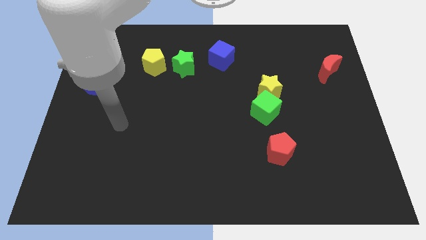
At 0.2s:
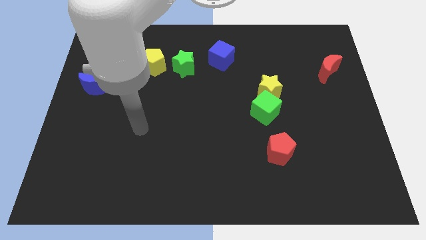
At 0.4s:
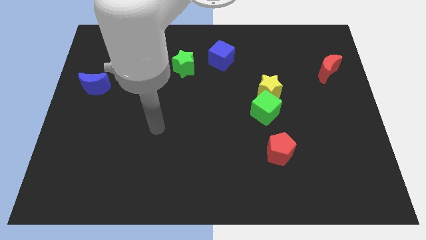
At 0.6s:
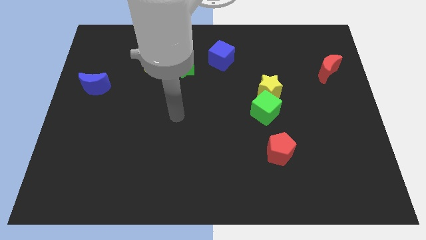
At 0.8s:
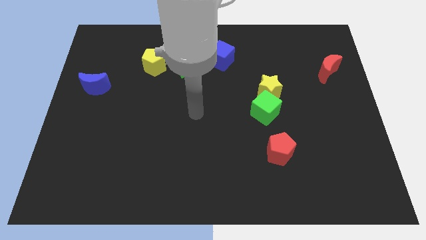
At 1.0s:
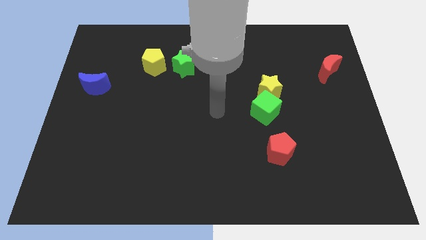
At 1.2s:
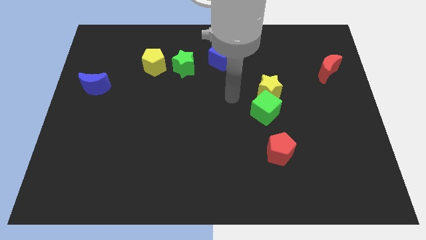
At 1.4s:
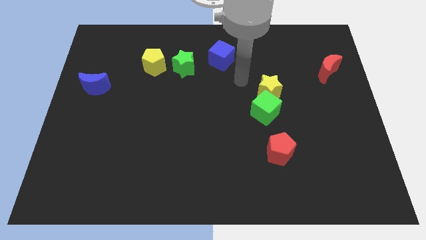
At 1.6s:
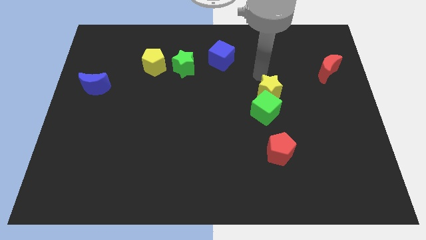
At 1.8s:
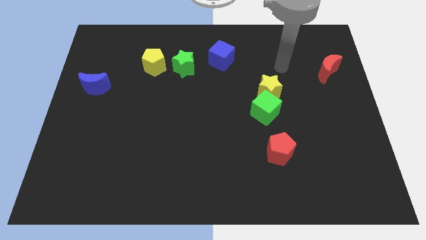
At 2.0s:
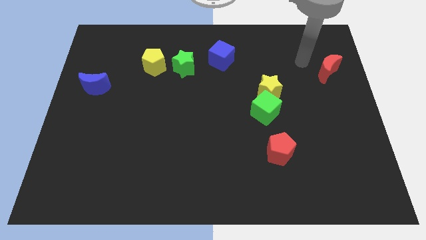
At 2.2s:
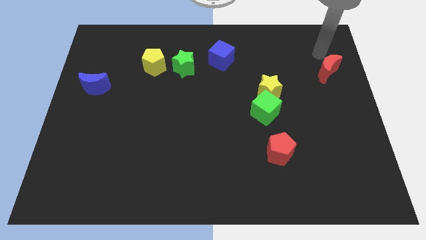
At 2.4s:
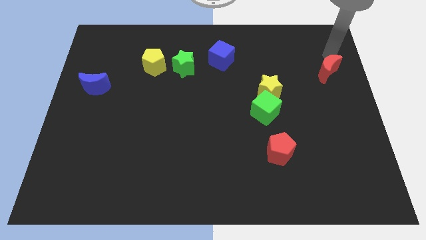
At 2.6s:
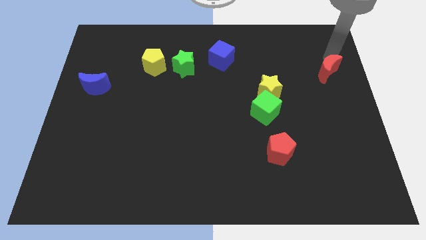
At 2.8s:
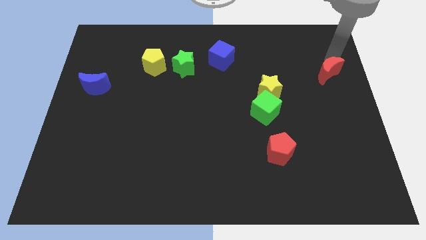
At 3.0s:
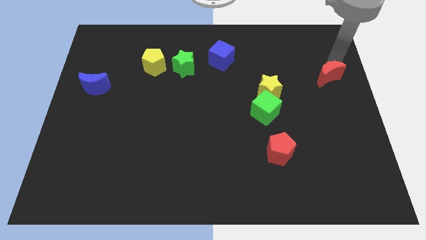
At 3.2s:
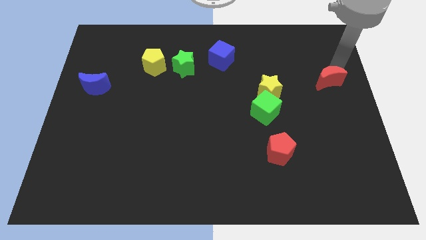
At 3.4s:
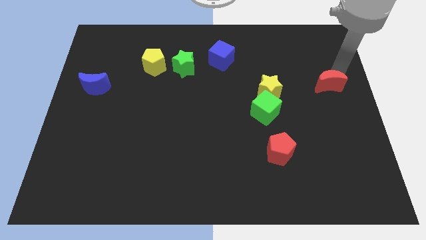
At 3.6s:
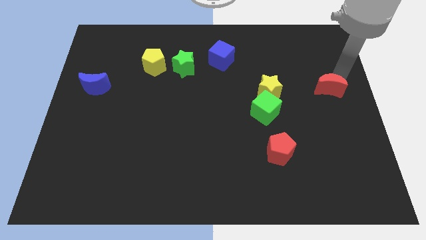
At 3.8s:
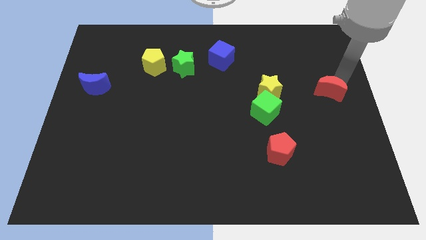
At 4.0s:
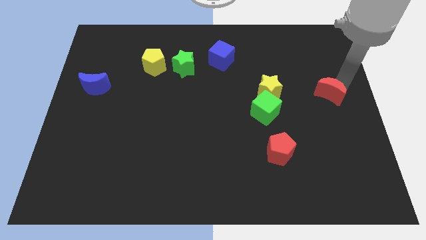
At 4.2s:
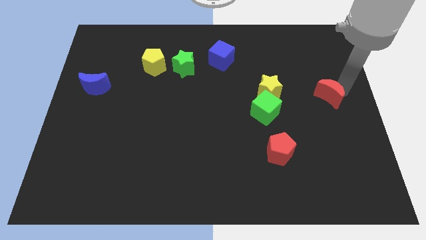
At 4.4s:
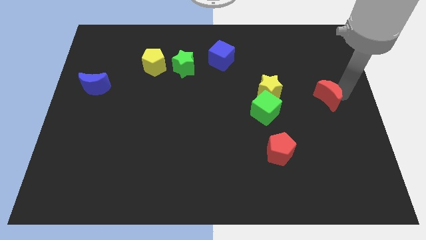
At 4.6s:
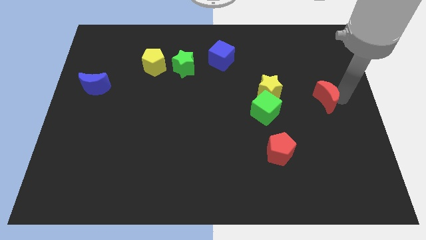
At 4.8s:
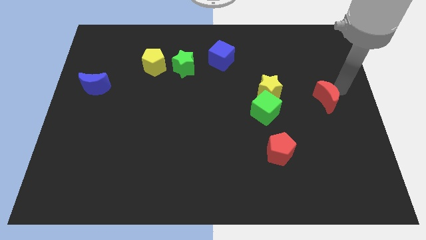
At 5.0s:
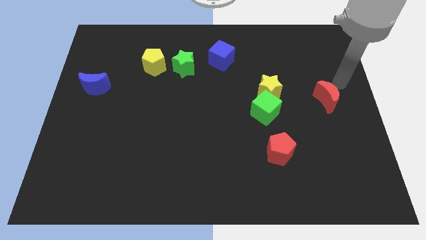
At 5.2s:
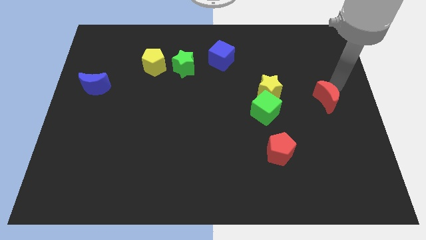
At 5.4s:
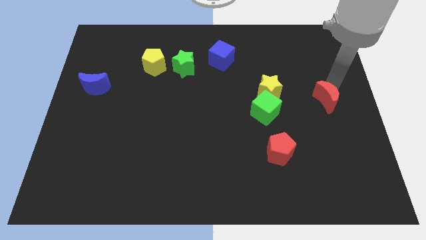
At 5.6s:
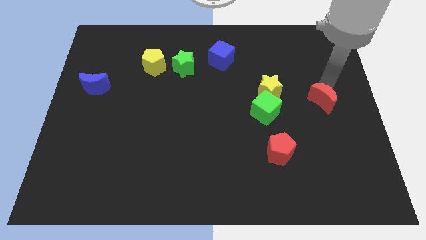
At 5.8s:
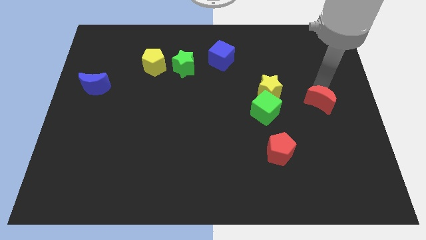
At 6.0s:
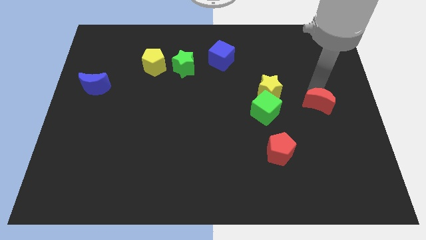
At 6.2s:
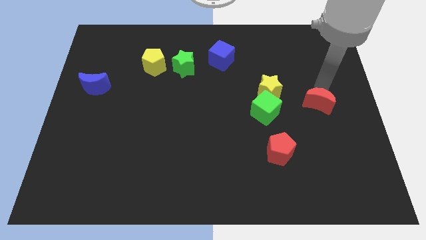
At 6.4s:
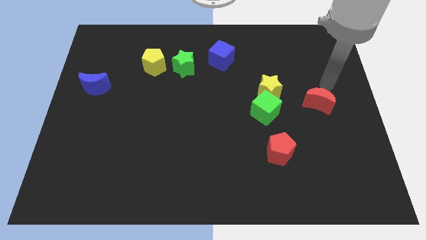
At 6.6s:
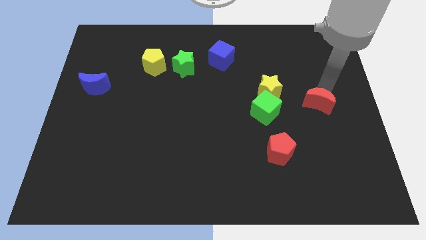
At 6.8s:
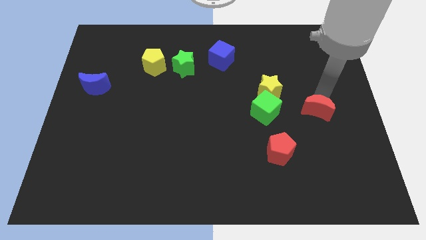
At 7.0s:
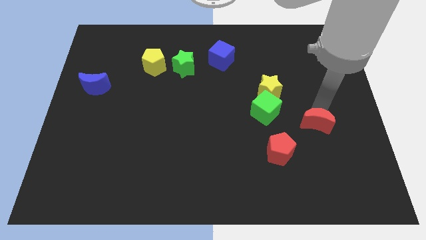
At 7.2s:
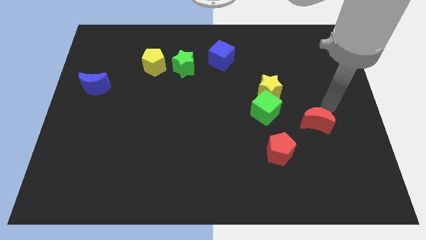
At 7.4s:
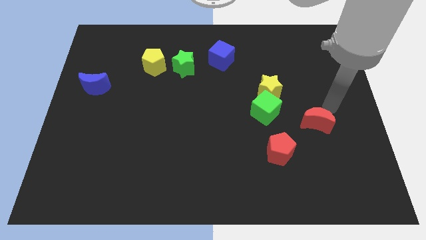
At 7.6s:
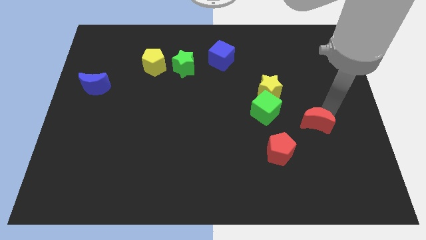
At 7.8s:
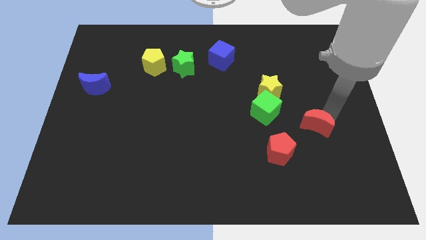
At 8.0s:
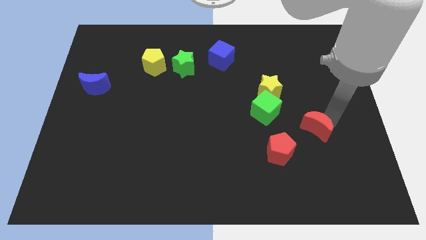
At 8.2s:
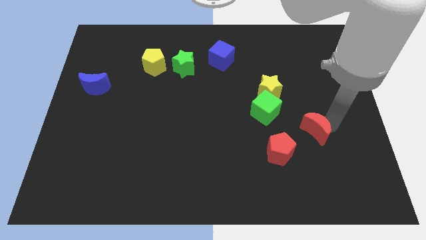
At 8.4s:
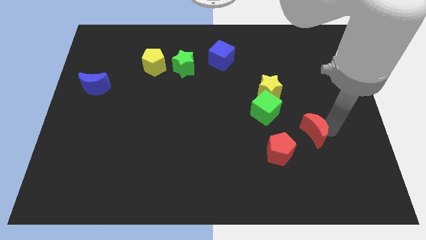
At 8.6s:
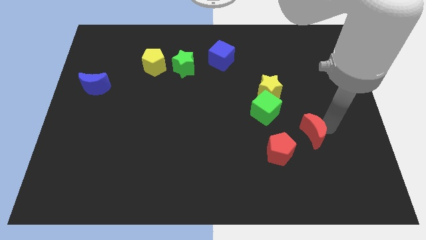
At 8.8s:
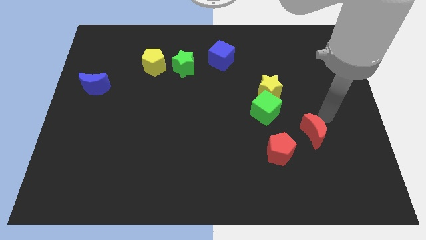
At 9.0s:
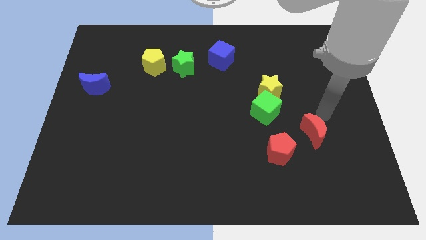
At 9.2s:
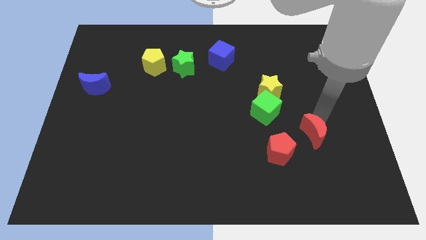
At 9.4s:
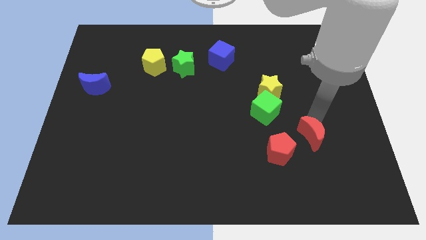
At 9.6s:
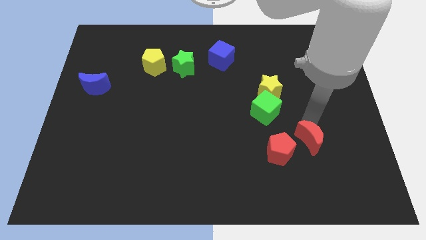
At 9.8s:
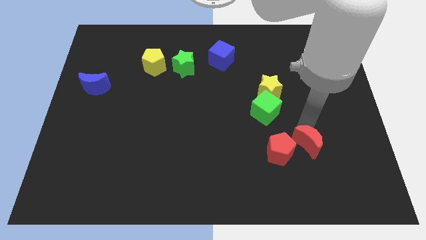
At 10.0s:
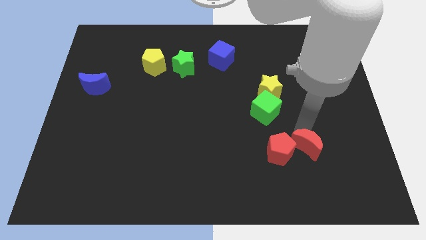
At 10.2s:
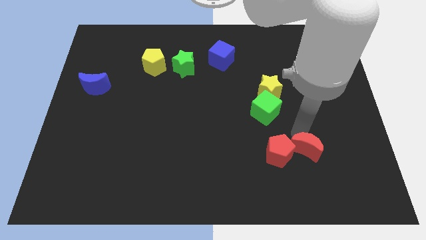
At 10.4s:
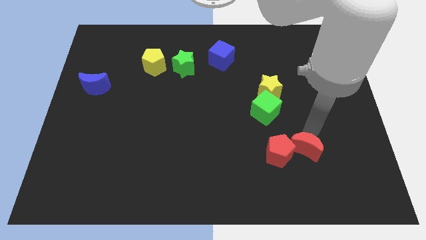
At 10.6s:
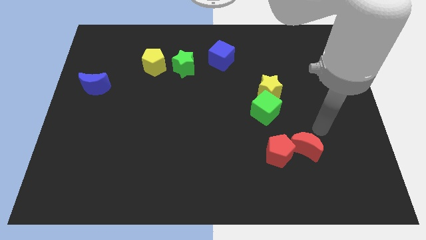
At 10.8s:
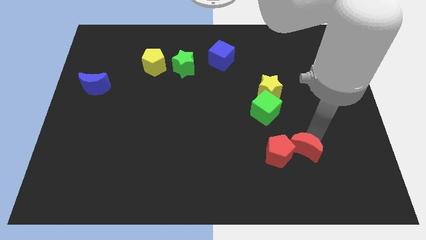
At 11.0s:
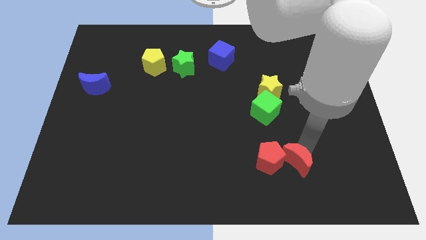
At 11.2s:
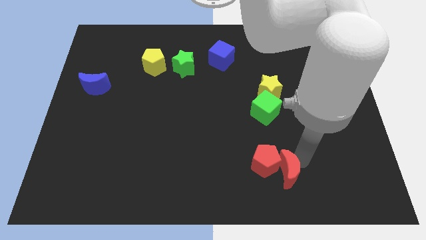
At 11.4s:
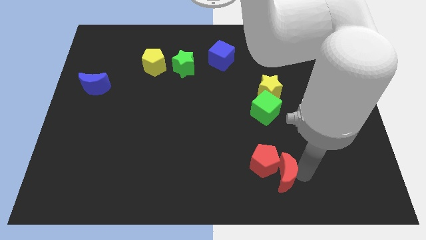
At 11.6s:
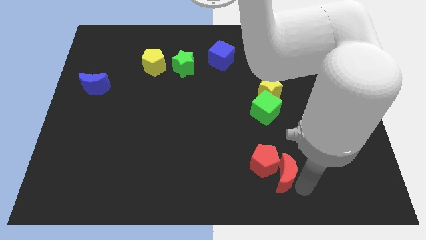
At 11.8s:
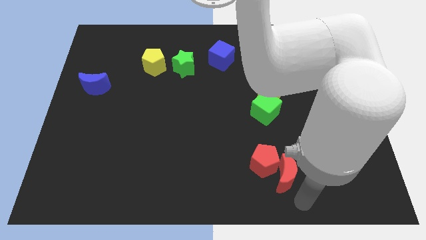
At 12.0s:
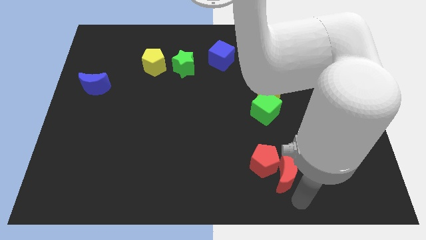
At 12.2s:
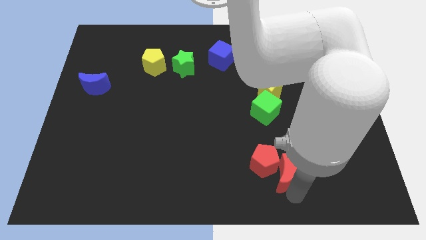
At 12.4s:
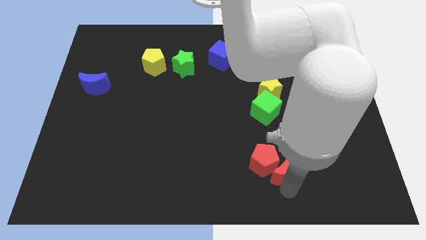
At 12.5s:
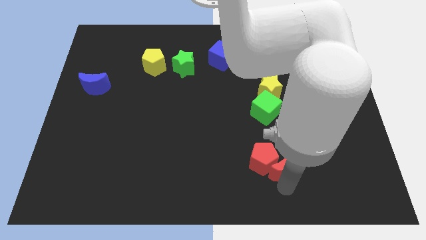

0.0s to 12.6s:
slide the red moon to the bottom side of the green cube
